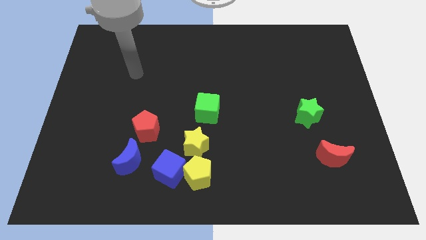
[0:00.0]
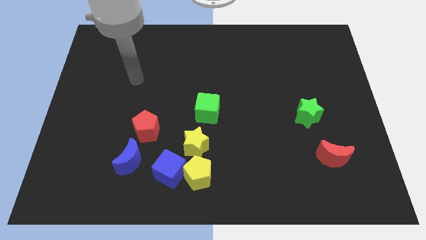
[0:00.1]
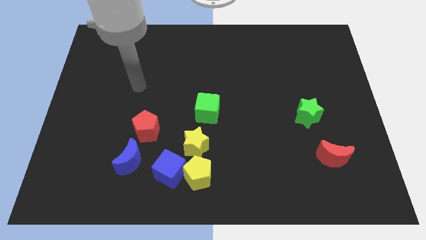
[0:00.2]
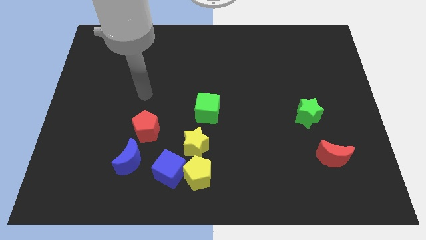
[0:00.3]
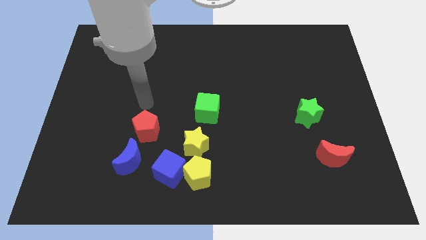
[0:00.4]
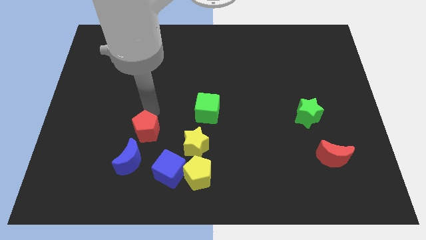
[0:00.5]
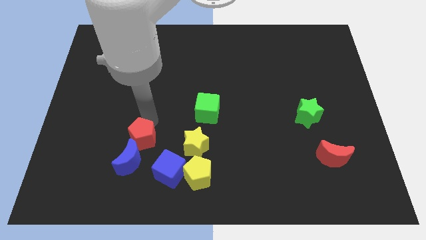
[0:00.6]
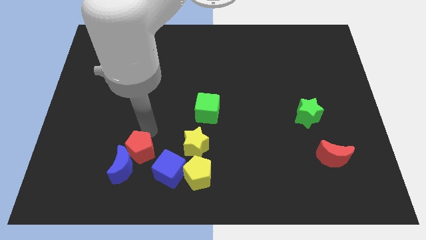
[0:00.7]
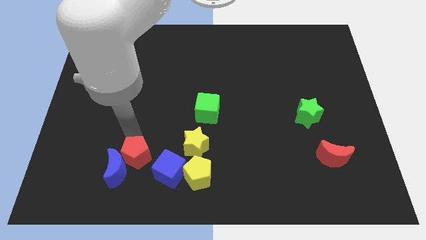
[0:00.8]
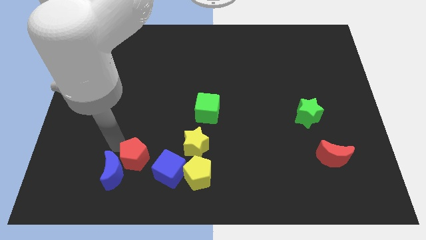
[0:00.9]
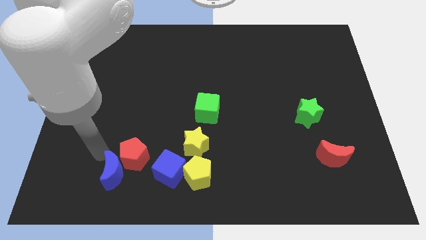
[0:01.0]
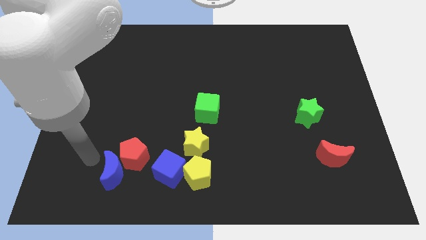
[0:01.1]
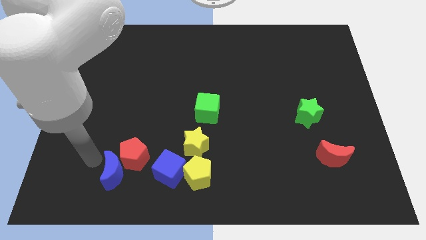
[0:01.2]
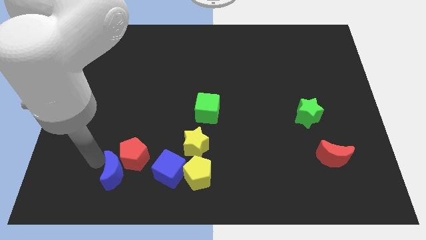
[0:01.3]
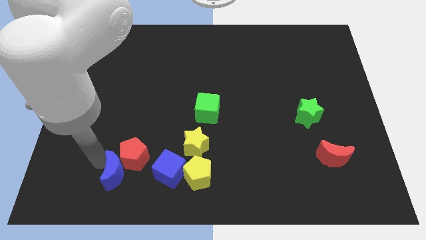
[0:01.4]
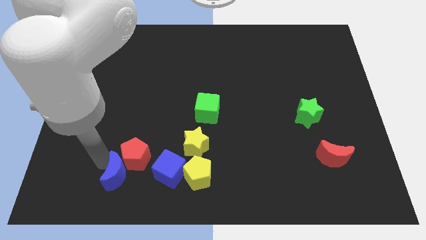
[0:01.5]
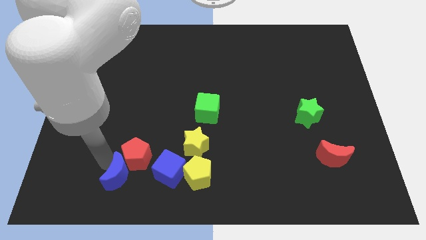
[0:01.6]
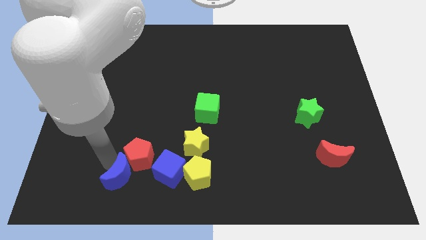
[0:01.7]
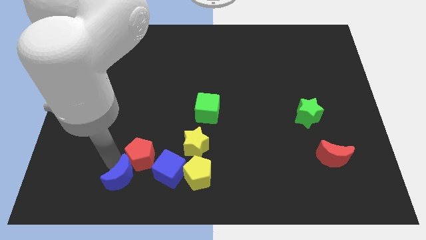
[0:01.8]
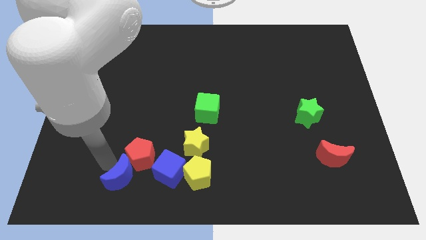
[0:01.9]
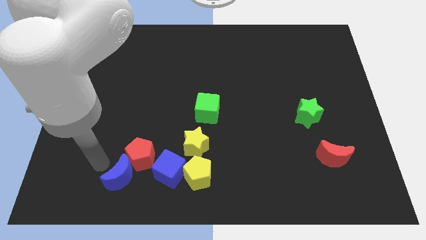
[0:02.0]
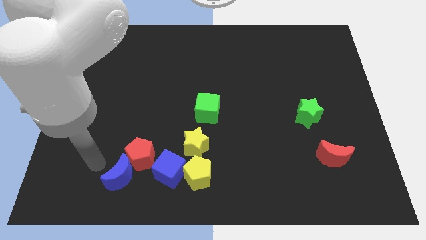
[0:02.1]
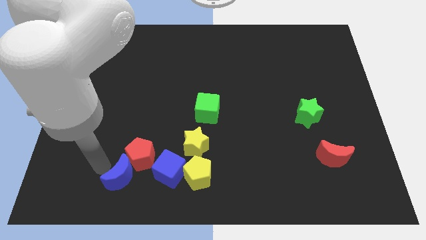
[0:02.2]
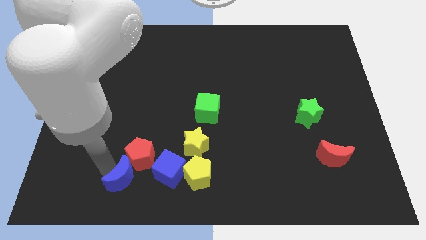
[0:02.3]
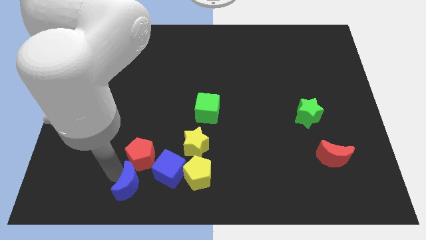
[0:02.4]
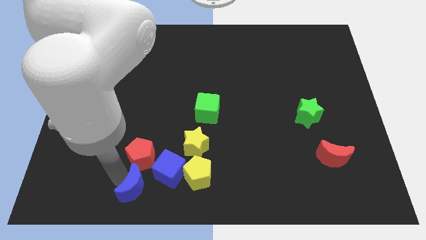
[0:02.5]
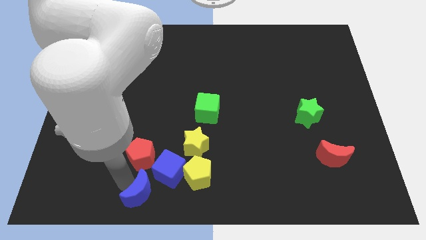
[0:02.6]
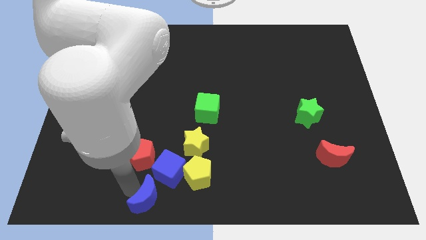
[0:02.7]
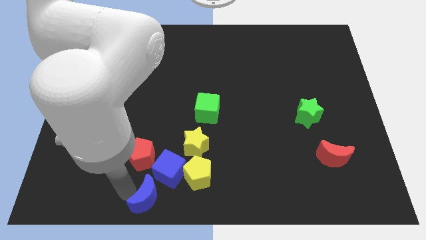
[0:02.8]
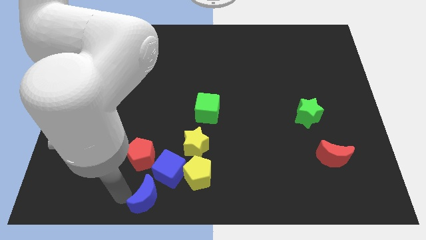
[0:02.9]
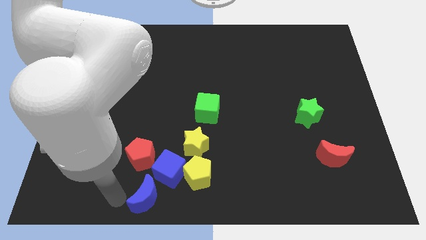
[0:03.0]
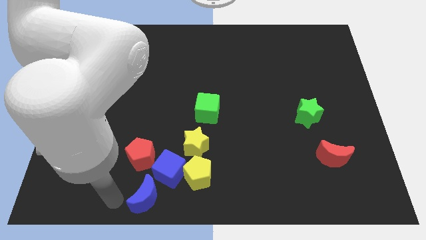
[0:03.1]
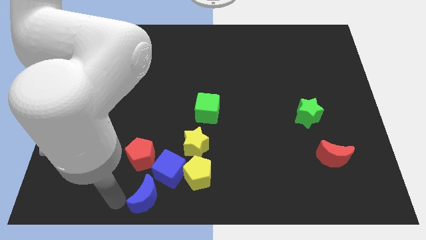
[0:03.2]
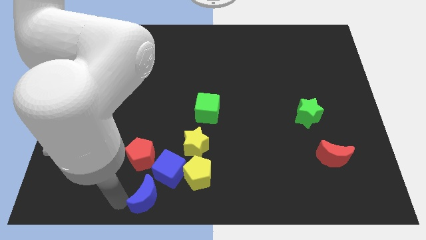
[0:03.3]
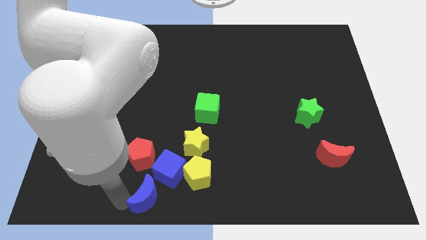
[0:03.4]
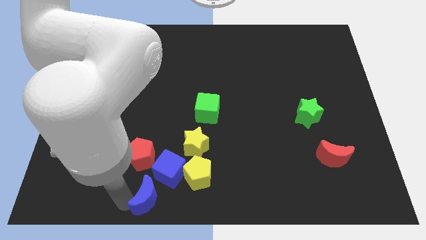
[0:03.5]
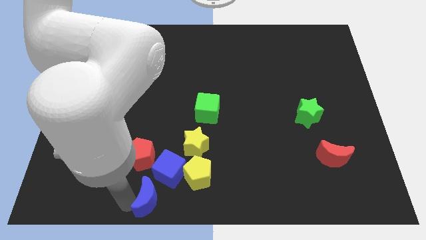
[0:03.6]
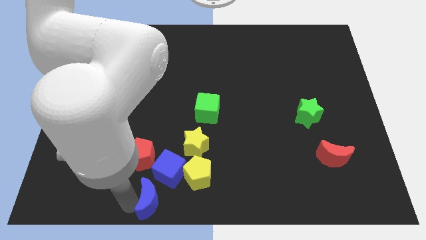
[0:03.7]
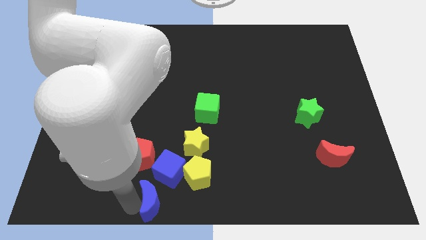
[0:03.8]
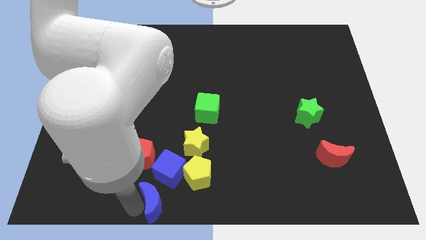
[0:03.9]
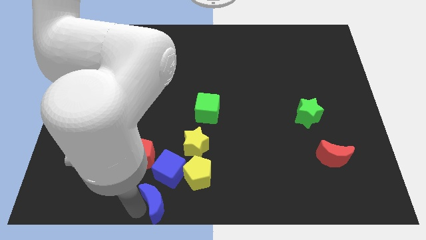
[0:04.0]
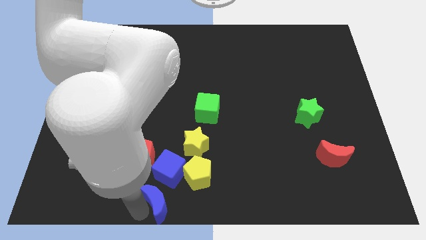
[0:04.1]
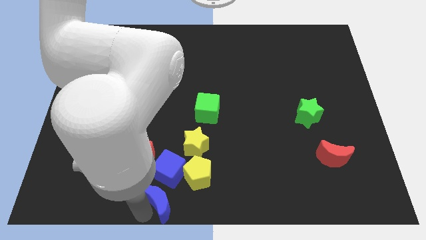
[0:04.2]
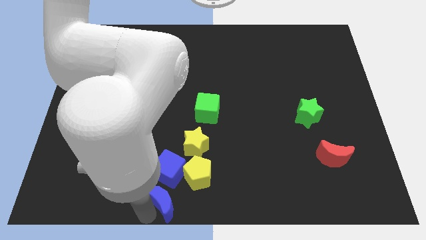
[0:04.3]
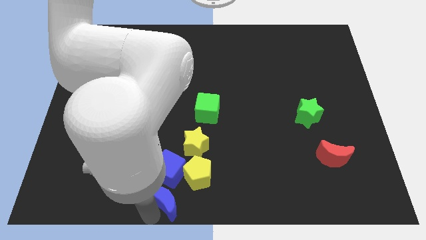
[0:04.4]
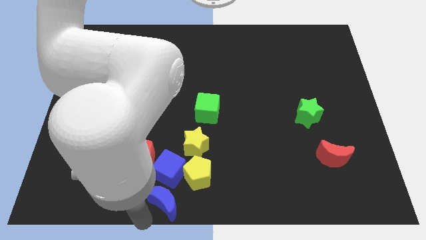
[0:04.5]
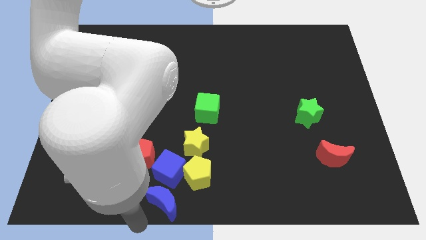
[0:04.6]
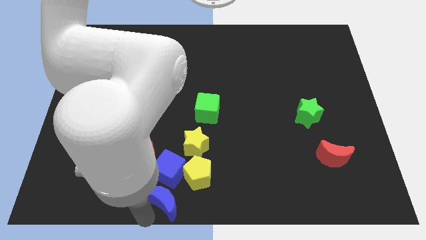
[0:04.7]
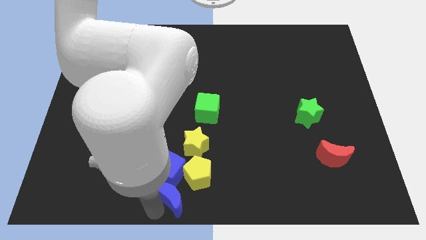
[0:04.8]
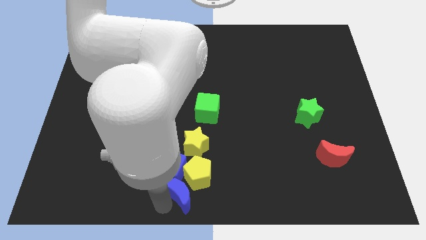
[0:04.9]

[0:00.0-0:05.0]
slide the blue moon to the yellow pentagon

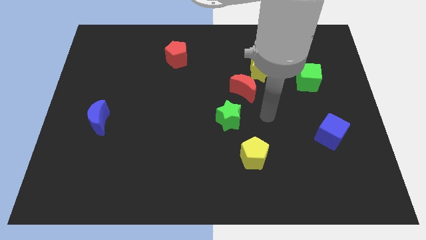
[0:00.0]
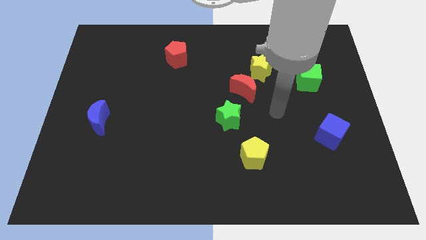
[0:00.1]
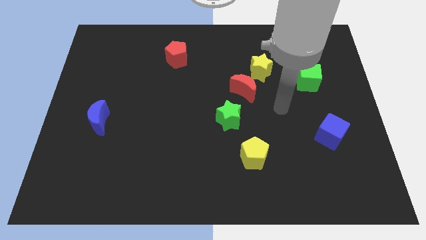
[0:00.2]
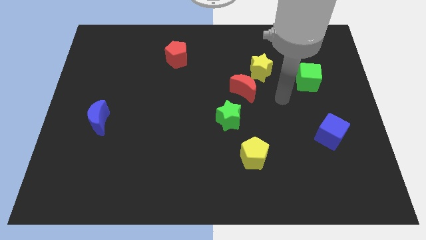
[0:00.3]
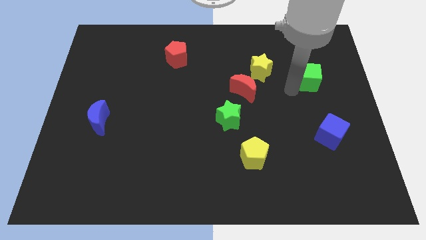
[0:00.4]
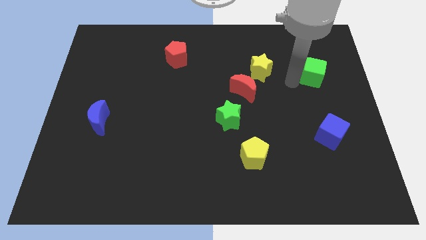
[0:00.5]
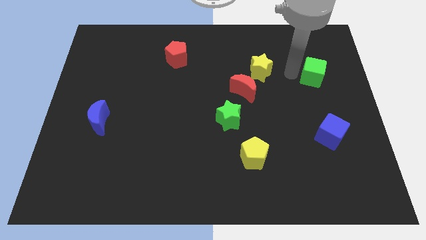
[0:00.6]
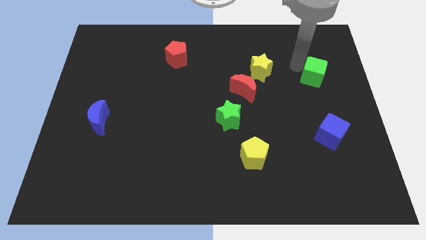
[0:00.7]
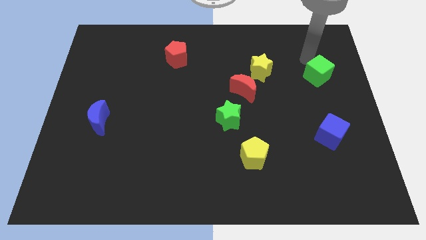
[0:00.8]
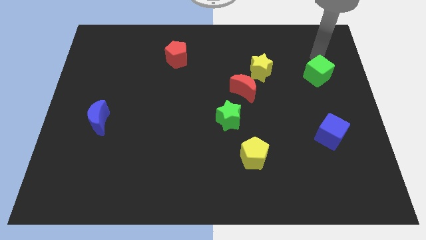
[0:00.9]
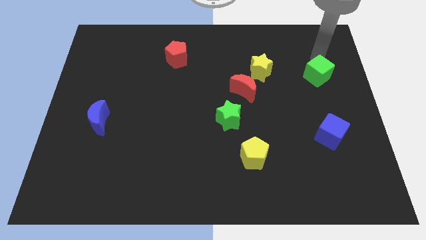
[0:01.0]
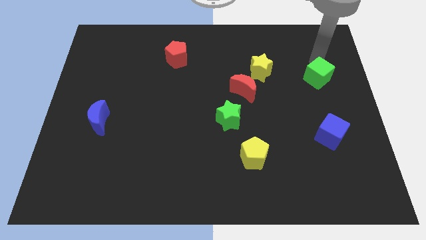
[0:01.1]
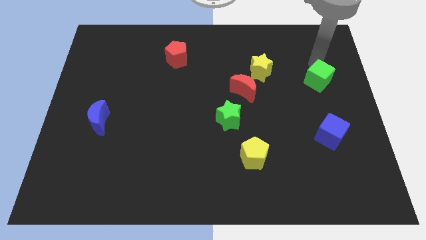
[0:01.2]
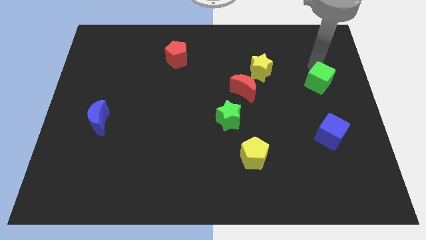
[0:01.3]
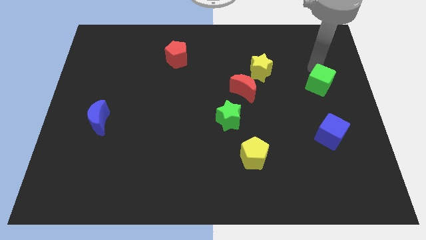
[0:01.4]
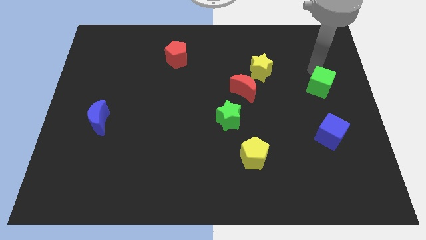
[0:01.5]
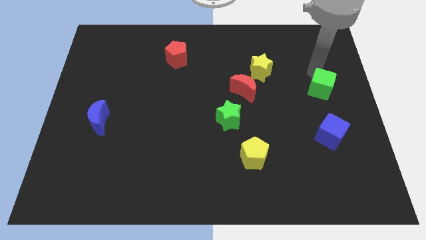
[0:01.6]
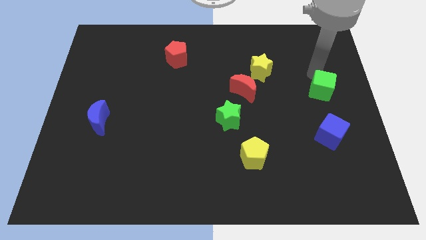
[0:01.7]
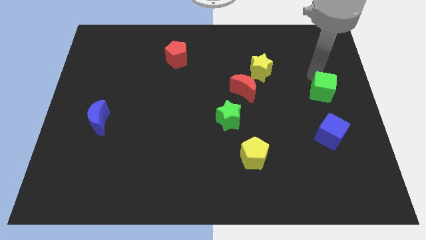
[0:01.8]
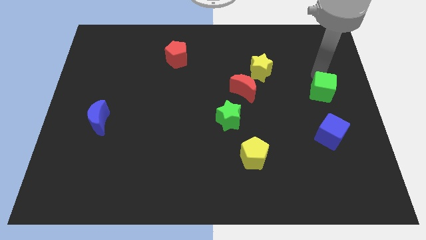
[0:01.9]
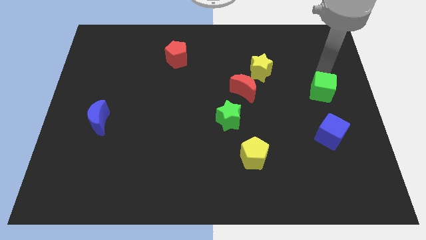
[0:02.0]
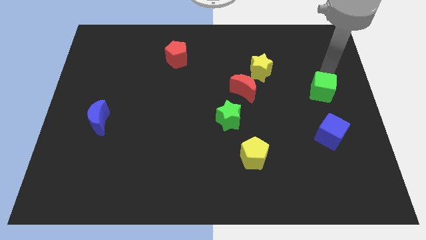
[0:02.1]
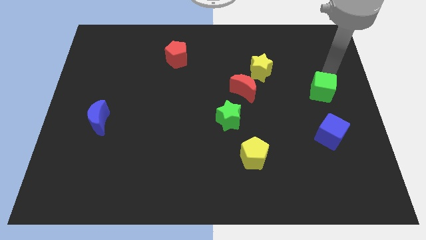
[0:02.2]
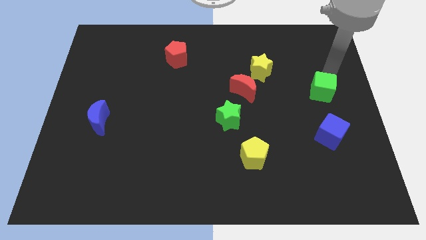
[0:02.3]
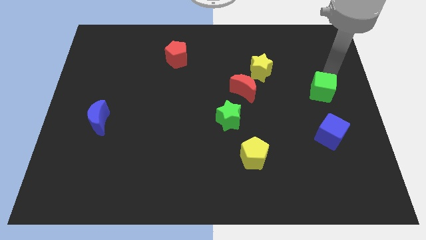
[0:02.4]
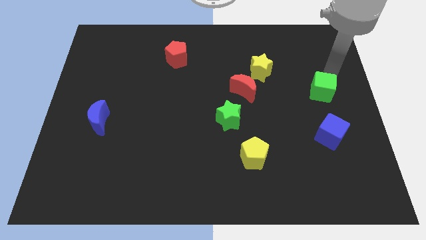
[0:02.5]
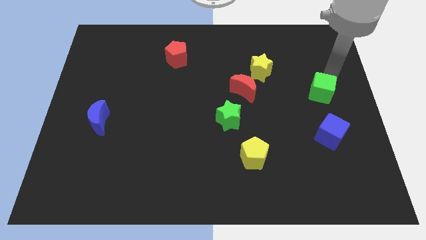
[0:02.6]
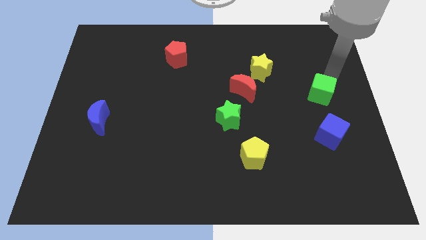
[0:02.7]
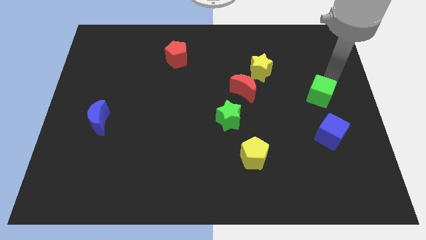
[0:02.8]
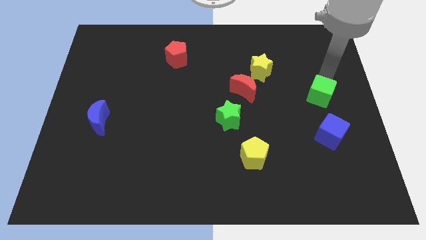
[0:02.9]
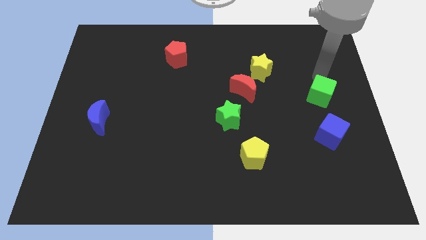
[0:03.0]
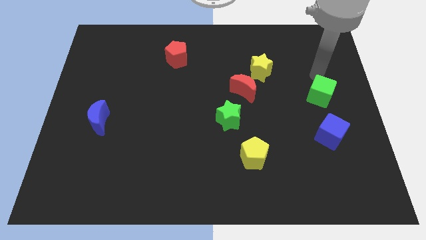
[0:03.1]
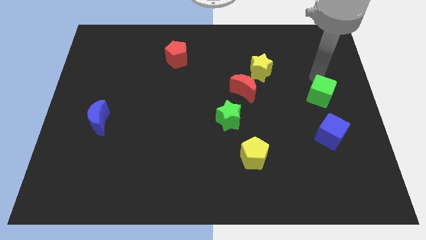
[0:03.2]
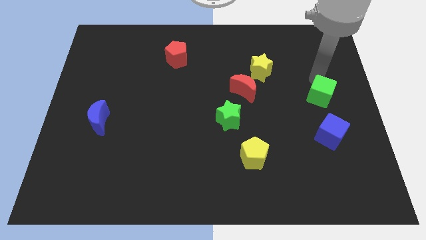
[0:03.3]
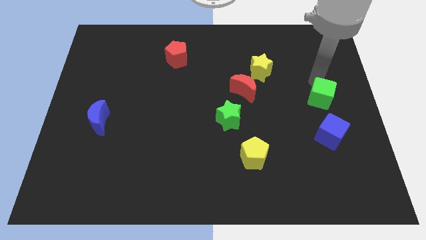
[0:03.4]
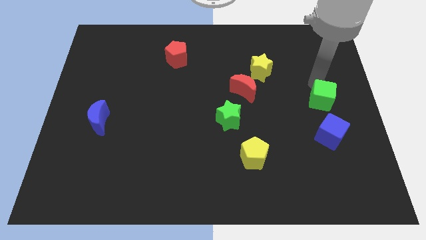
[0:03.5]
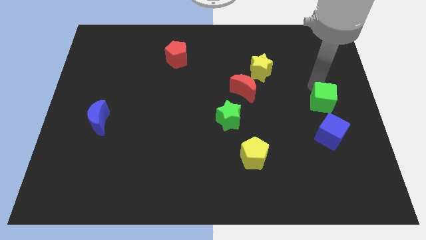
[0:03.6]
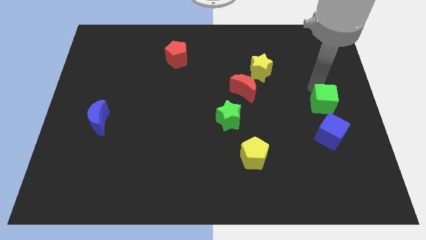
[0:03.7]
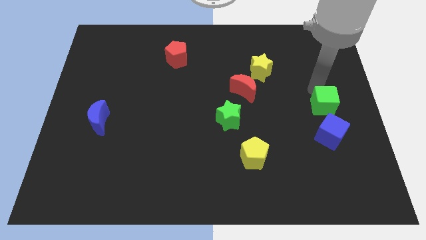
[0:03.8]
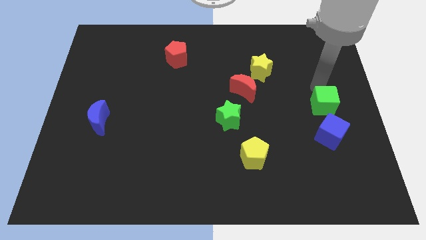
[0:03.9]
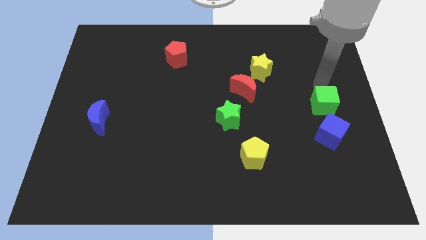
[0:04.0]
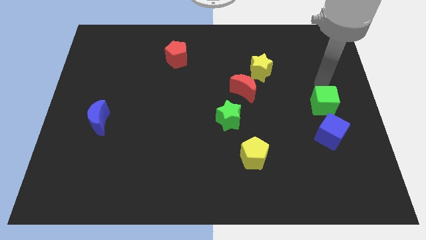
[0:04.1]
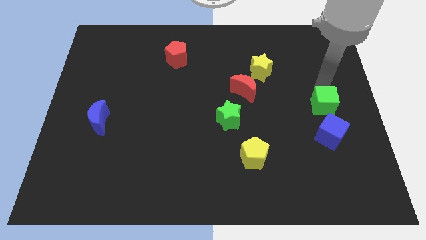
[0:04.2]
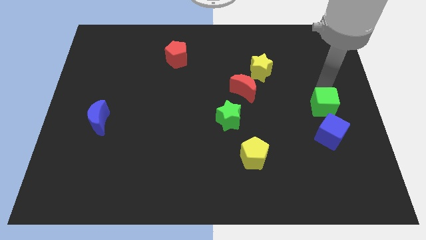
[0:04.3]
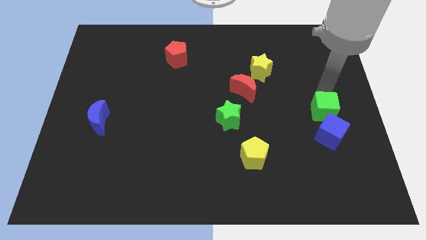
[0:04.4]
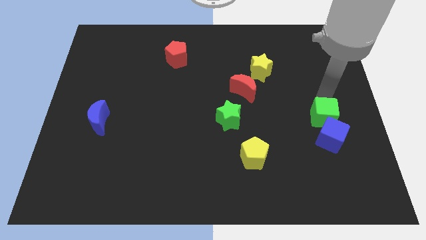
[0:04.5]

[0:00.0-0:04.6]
slide the green cube next to the blue cube
